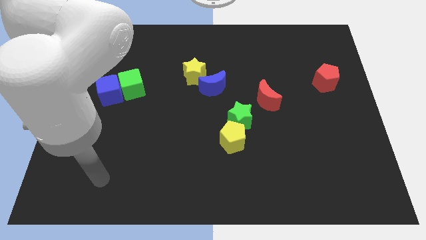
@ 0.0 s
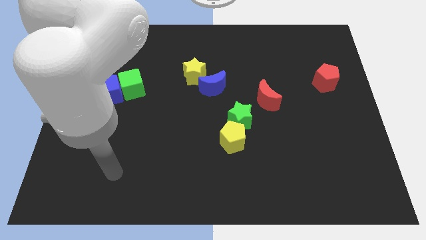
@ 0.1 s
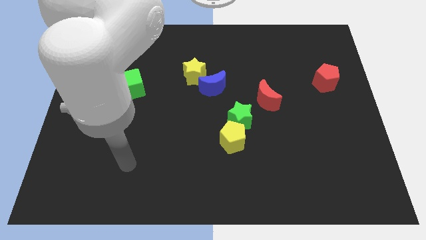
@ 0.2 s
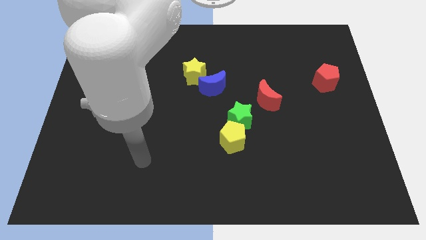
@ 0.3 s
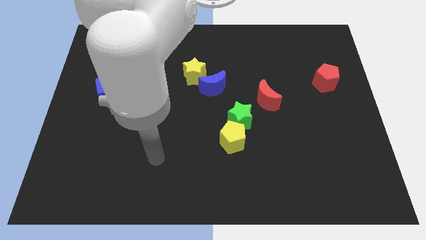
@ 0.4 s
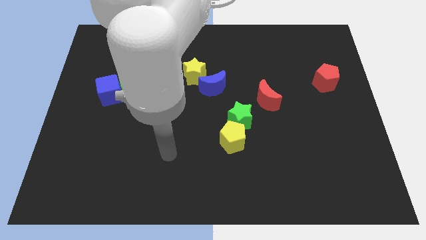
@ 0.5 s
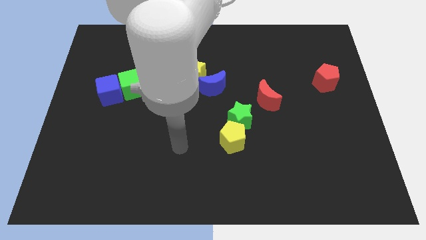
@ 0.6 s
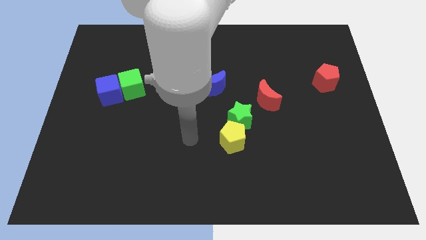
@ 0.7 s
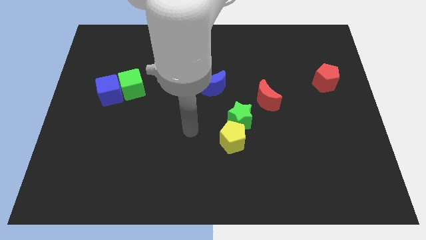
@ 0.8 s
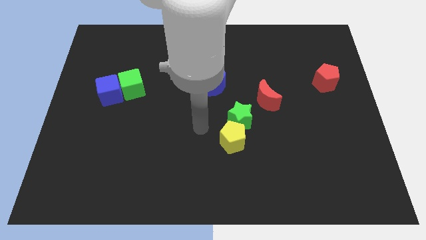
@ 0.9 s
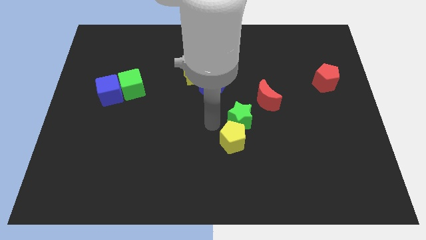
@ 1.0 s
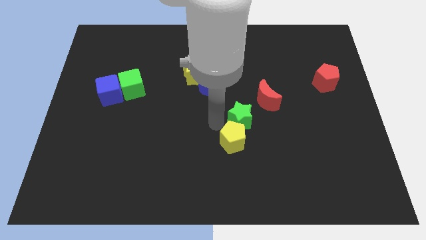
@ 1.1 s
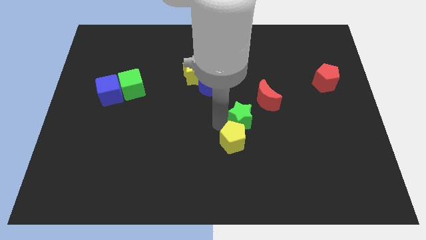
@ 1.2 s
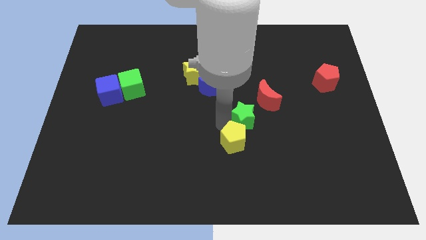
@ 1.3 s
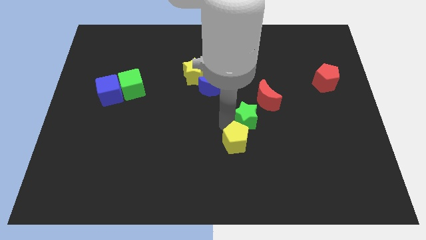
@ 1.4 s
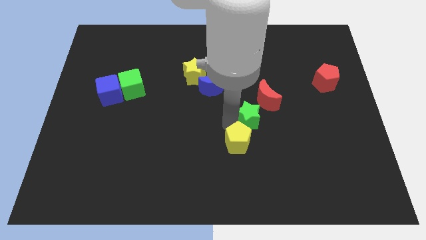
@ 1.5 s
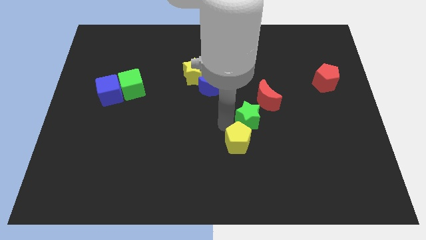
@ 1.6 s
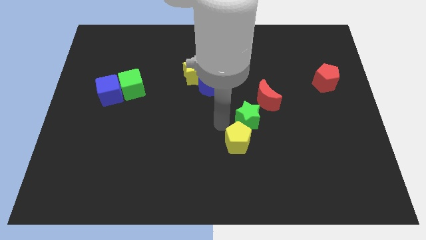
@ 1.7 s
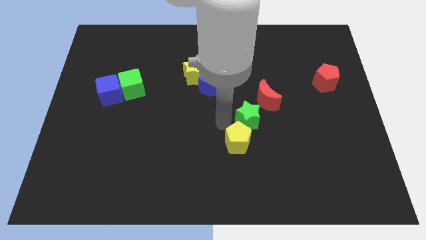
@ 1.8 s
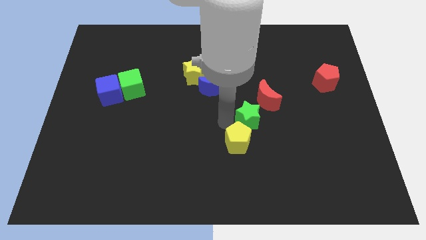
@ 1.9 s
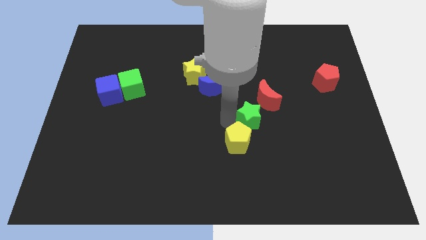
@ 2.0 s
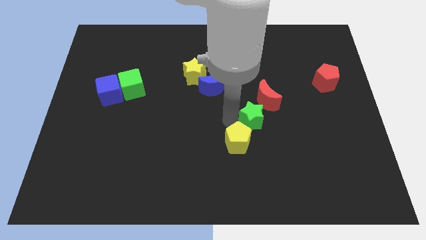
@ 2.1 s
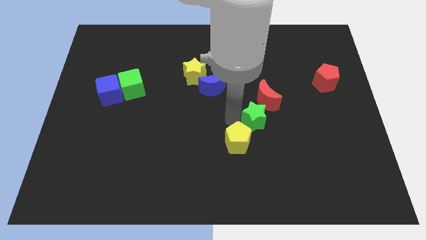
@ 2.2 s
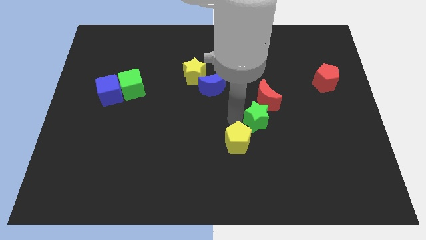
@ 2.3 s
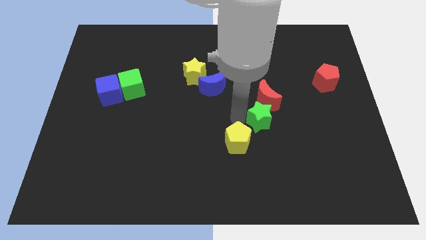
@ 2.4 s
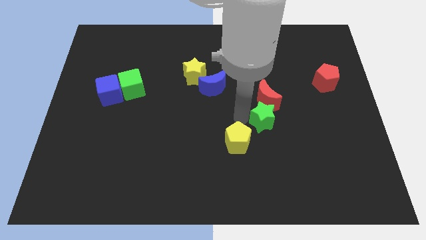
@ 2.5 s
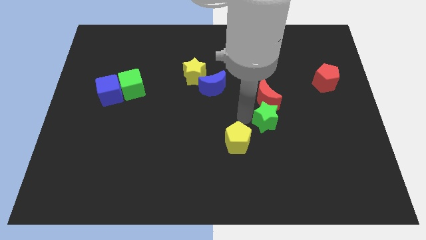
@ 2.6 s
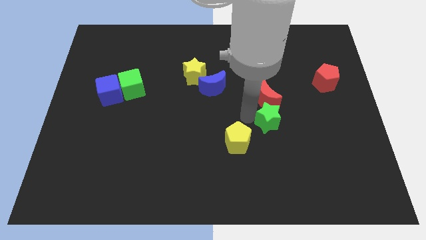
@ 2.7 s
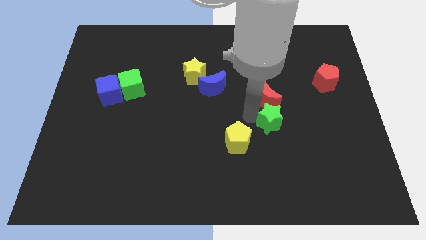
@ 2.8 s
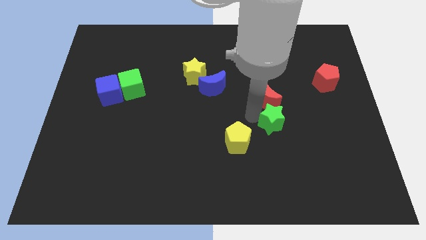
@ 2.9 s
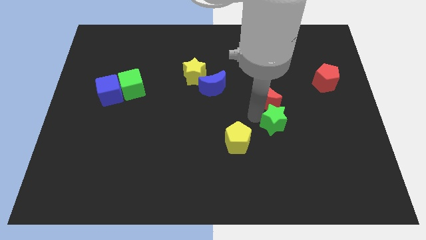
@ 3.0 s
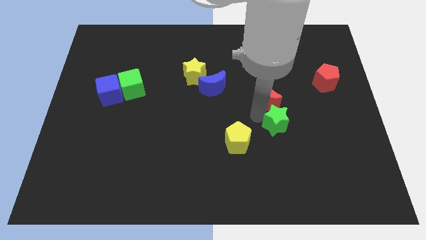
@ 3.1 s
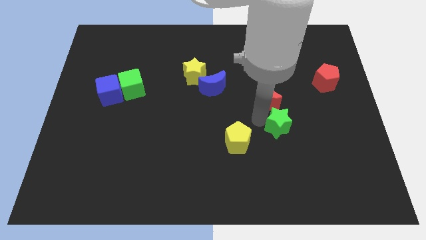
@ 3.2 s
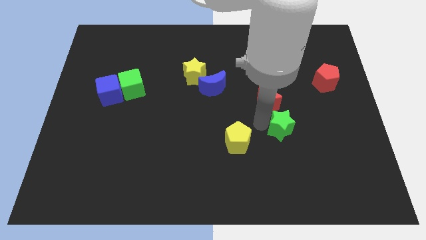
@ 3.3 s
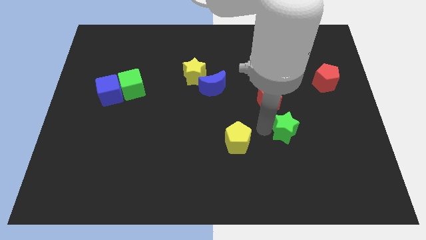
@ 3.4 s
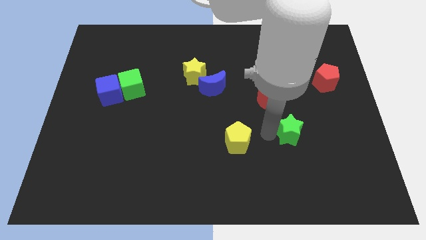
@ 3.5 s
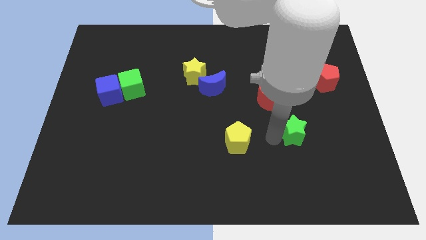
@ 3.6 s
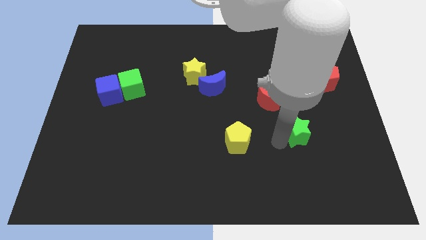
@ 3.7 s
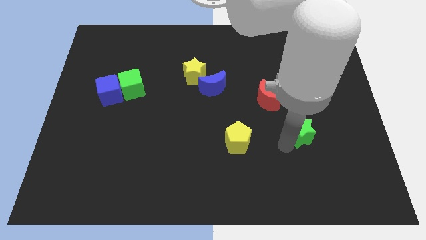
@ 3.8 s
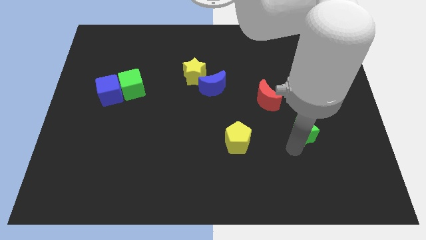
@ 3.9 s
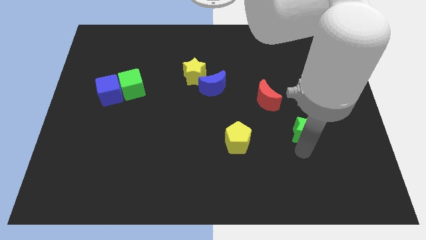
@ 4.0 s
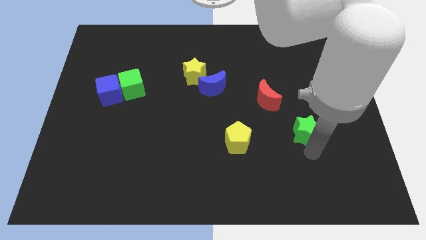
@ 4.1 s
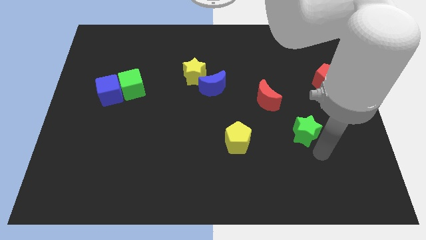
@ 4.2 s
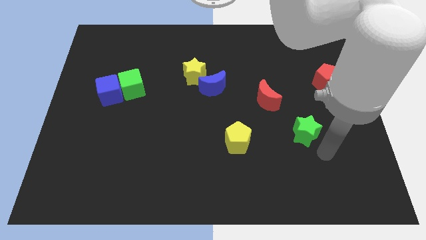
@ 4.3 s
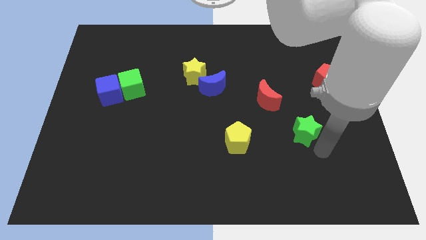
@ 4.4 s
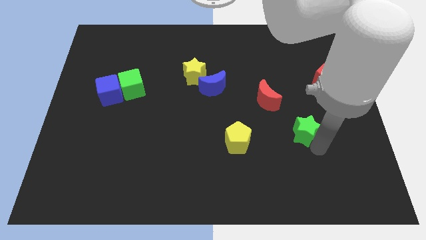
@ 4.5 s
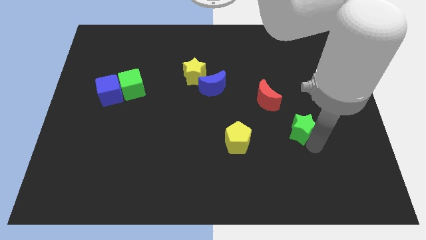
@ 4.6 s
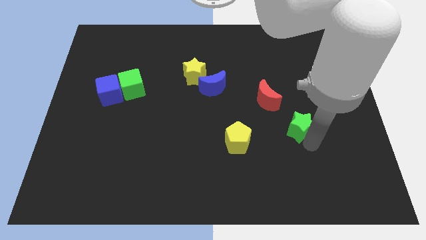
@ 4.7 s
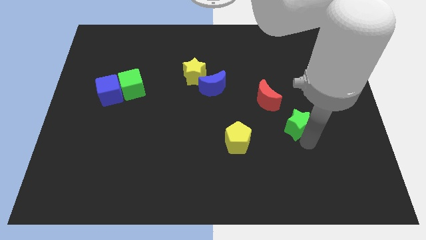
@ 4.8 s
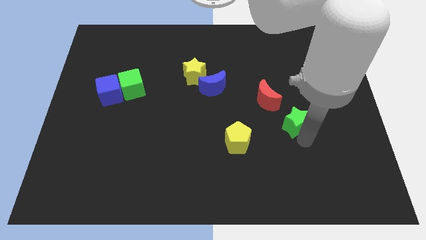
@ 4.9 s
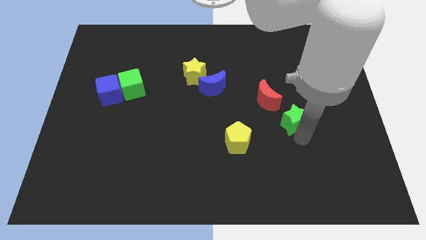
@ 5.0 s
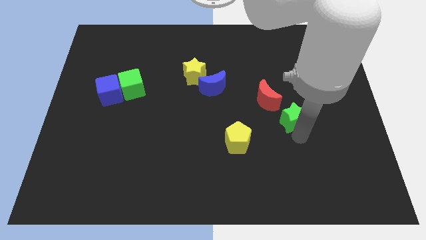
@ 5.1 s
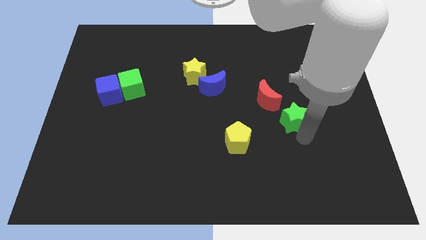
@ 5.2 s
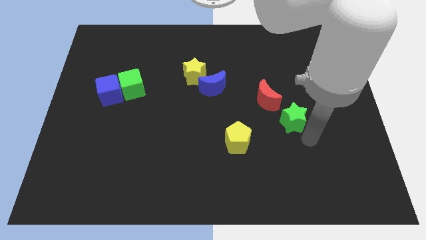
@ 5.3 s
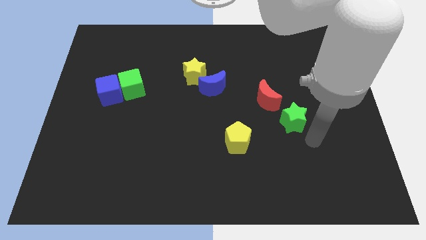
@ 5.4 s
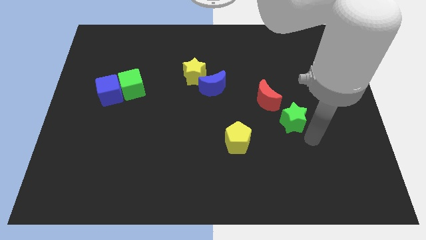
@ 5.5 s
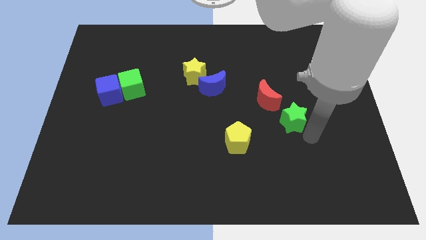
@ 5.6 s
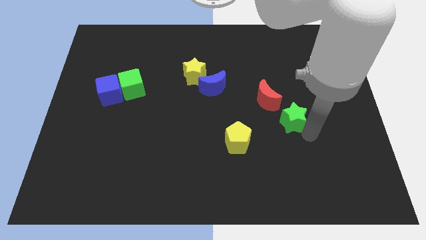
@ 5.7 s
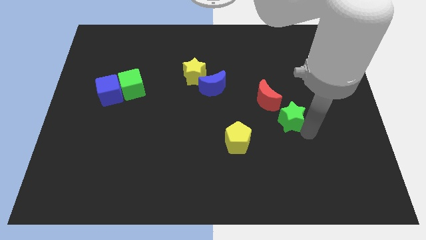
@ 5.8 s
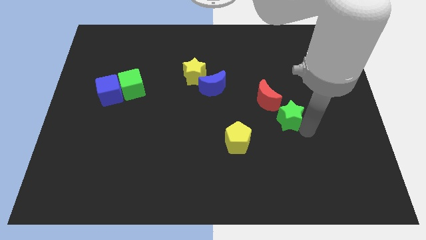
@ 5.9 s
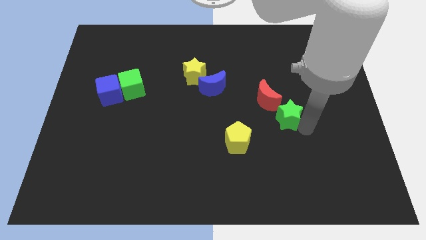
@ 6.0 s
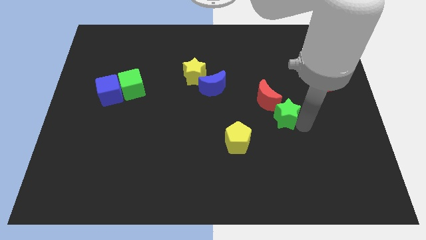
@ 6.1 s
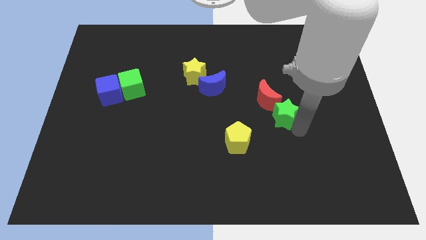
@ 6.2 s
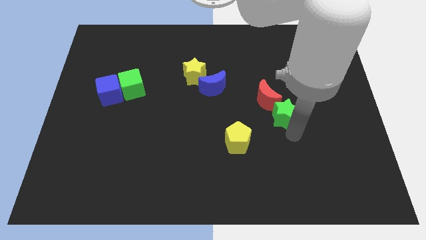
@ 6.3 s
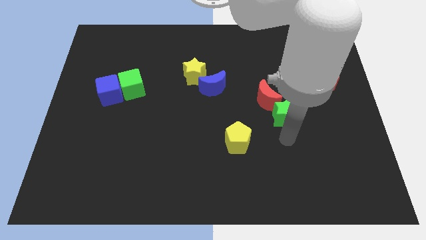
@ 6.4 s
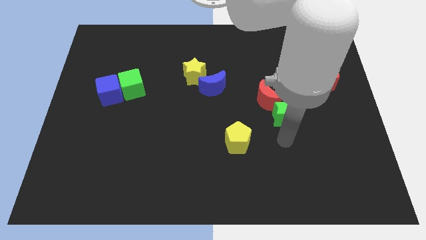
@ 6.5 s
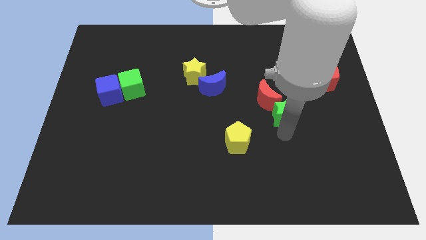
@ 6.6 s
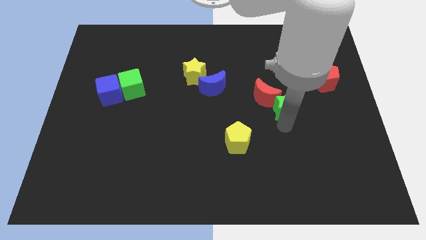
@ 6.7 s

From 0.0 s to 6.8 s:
move the green star upwards and then to the right a bit

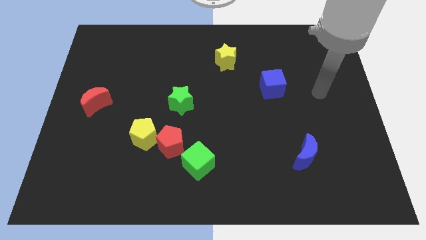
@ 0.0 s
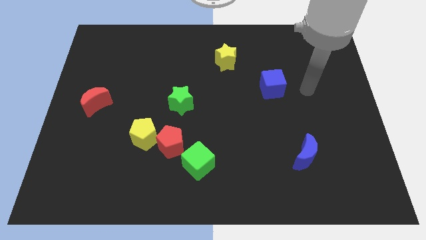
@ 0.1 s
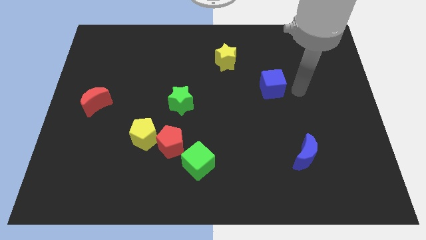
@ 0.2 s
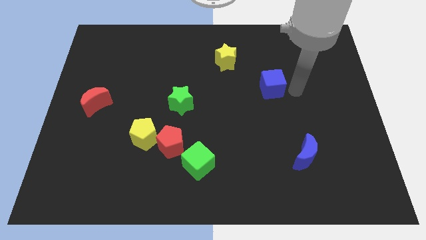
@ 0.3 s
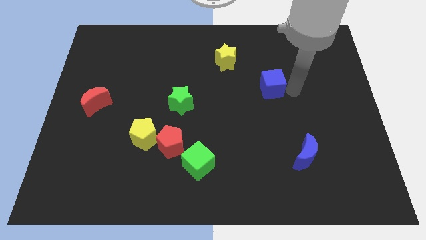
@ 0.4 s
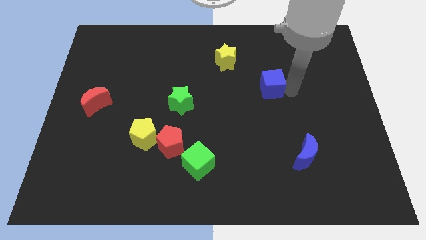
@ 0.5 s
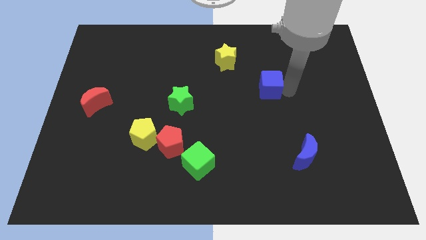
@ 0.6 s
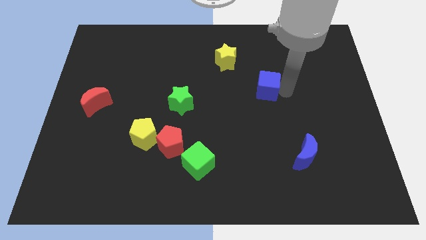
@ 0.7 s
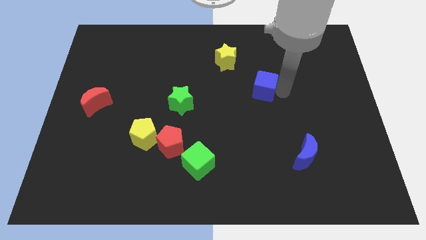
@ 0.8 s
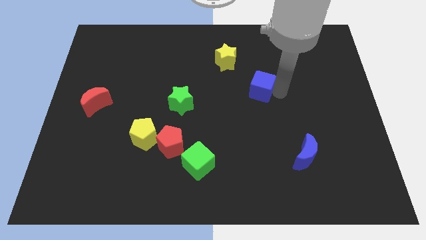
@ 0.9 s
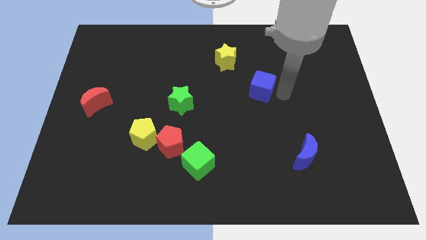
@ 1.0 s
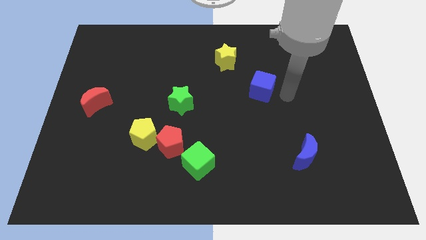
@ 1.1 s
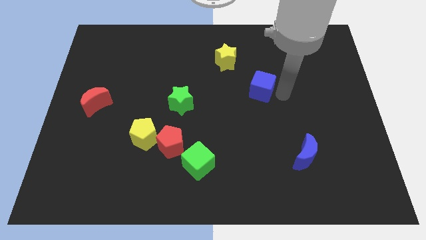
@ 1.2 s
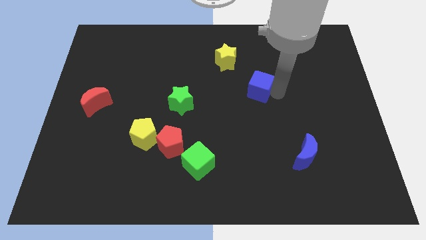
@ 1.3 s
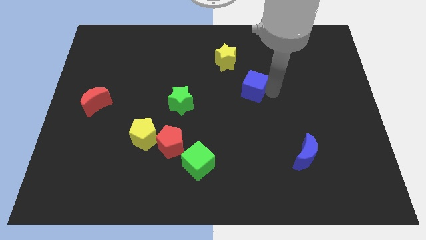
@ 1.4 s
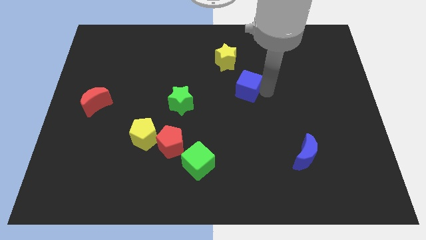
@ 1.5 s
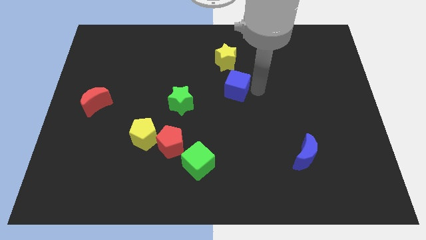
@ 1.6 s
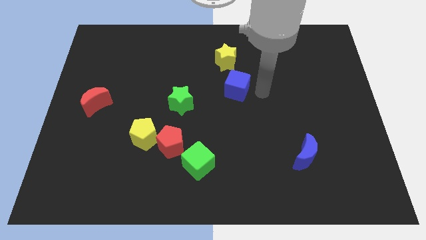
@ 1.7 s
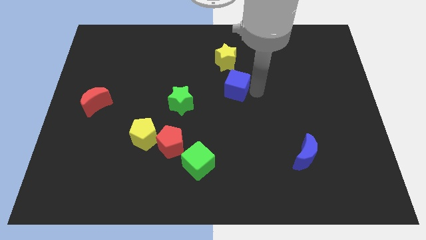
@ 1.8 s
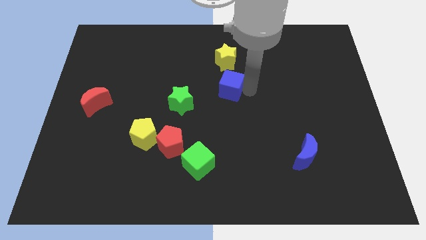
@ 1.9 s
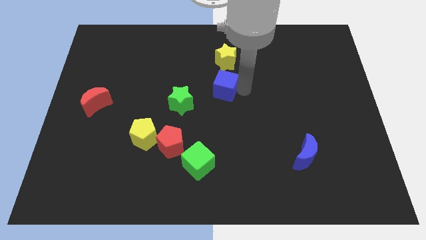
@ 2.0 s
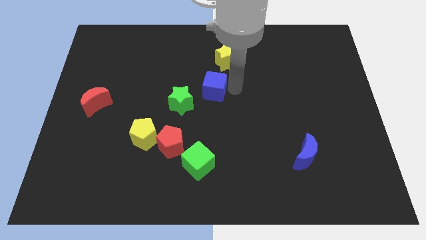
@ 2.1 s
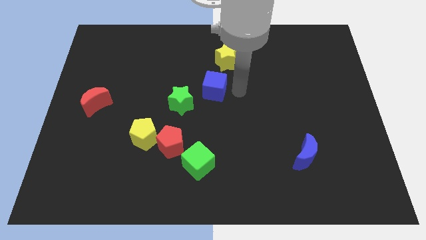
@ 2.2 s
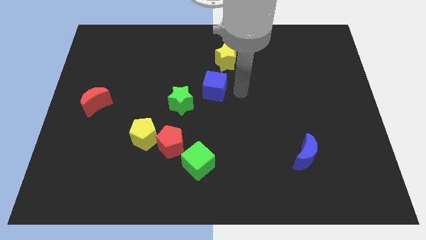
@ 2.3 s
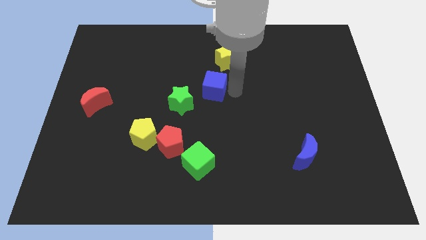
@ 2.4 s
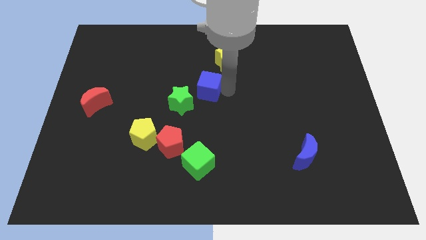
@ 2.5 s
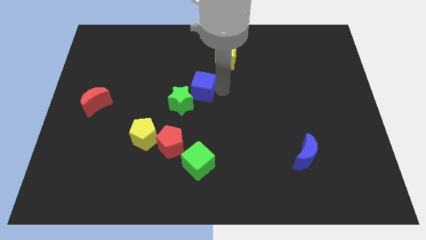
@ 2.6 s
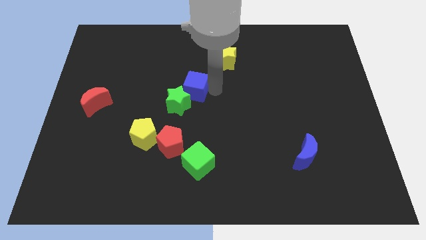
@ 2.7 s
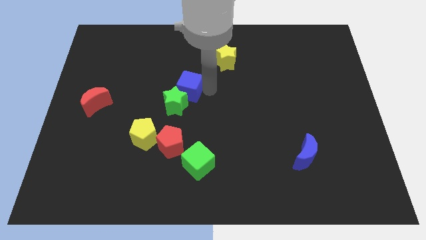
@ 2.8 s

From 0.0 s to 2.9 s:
push the blue cube to the left
